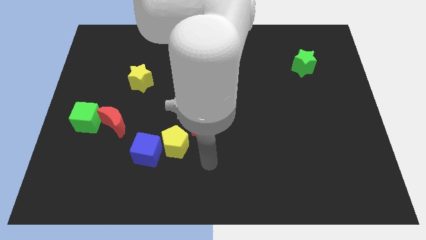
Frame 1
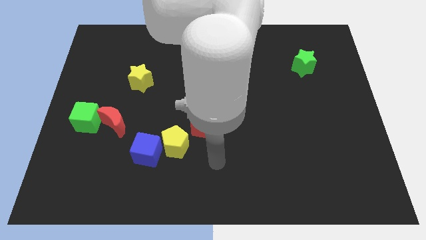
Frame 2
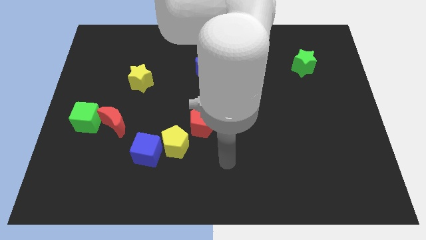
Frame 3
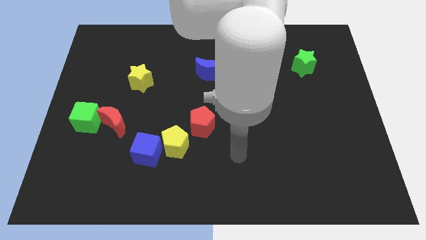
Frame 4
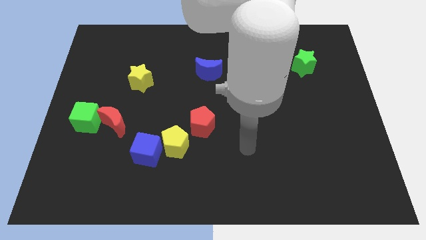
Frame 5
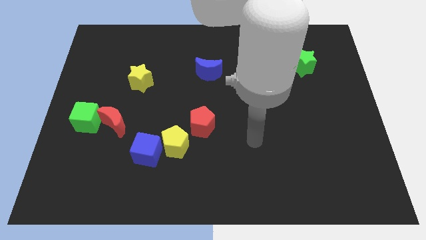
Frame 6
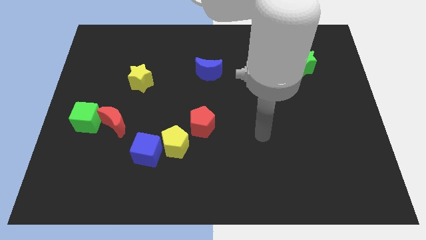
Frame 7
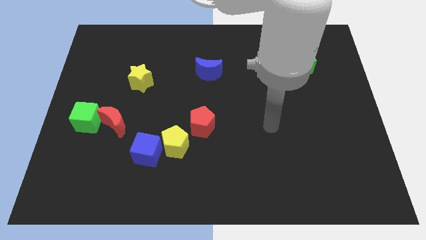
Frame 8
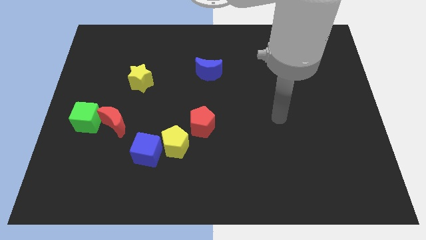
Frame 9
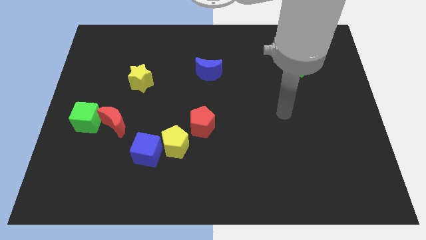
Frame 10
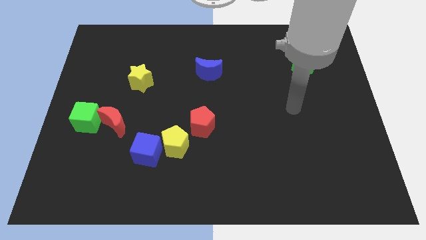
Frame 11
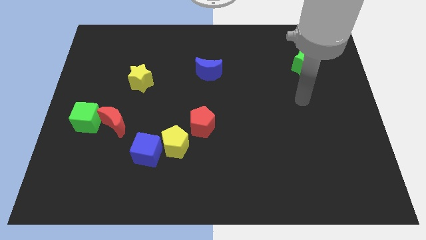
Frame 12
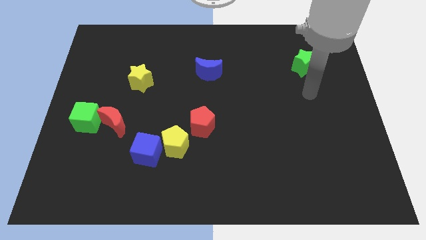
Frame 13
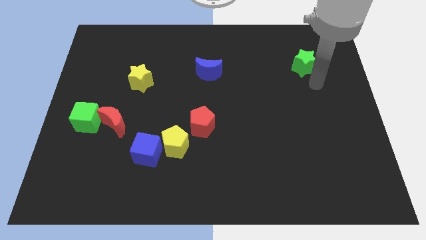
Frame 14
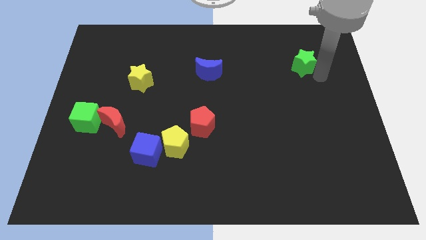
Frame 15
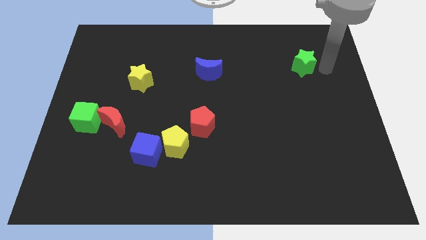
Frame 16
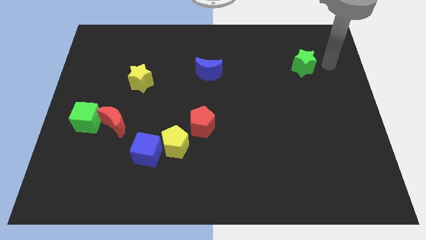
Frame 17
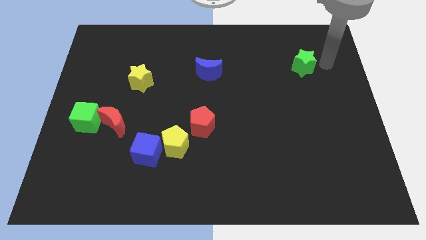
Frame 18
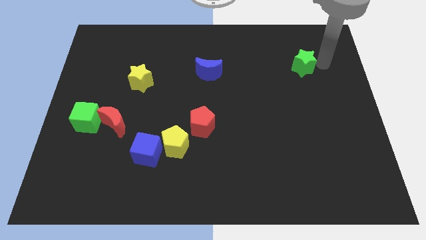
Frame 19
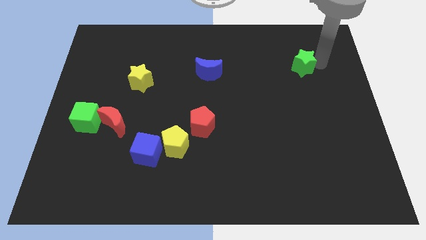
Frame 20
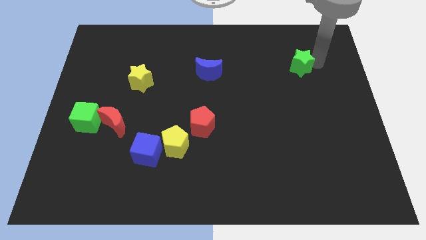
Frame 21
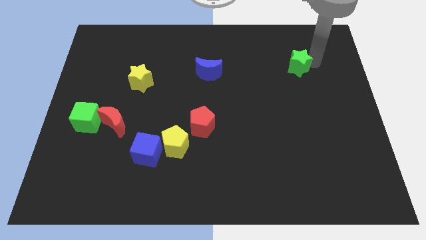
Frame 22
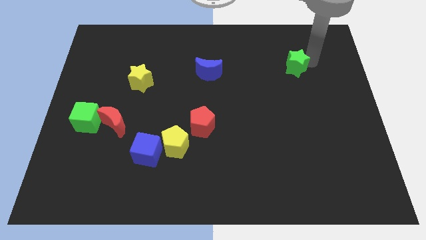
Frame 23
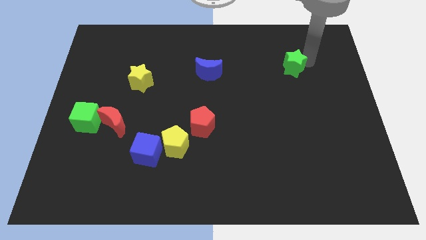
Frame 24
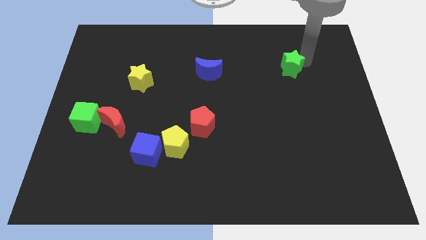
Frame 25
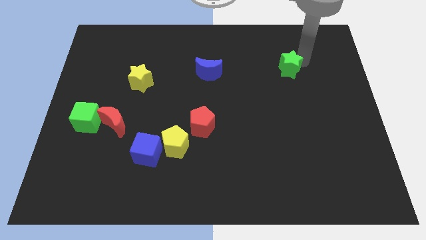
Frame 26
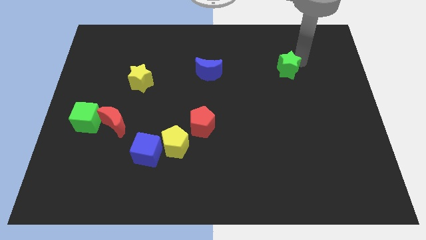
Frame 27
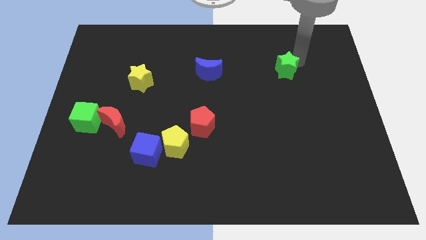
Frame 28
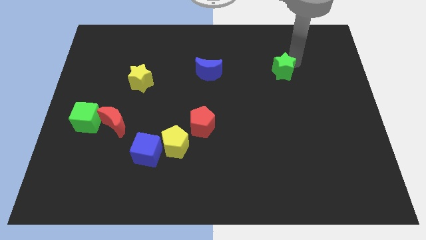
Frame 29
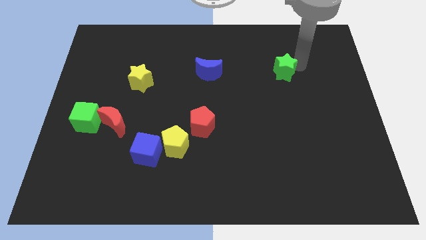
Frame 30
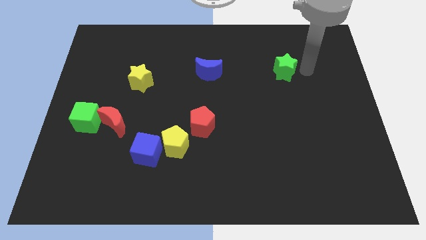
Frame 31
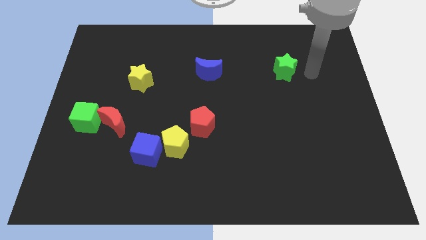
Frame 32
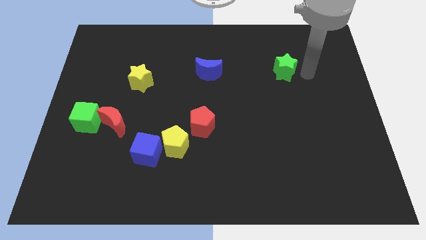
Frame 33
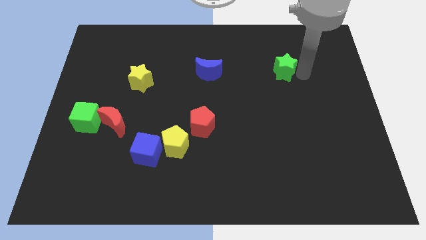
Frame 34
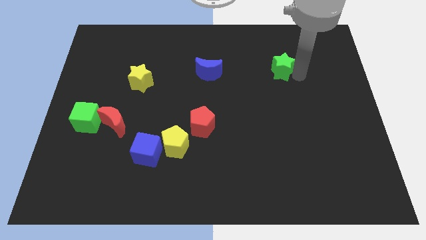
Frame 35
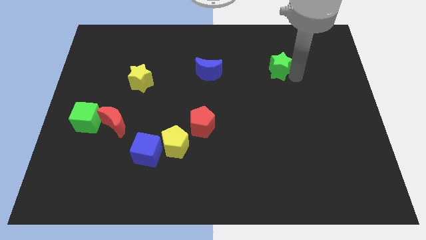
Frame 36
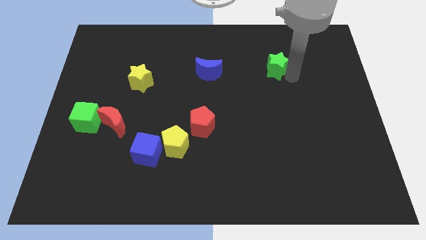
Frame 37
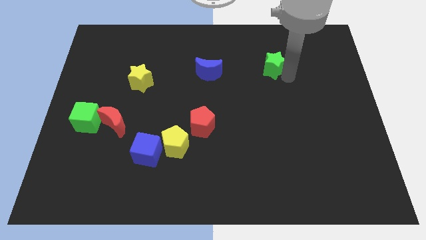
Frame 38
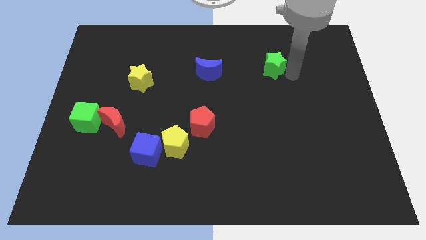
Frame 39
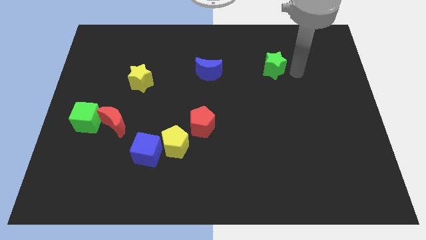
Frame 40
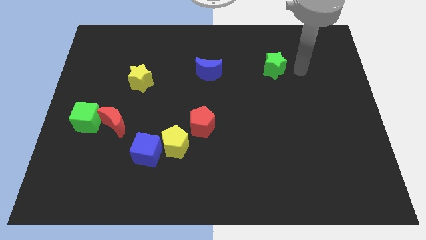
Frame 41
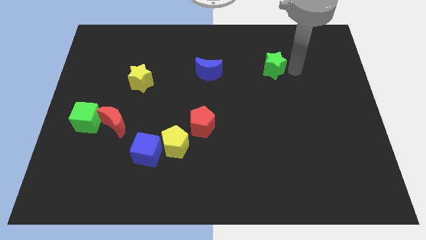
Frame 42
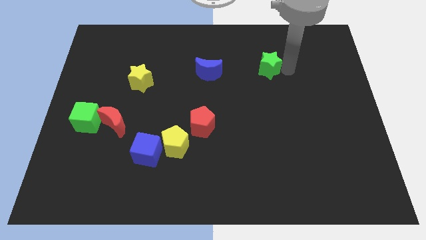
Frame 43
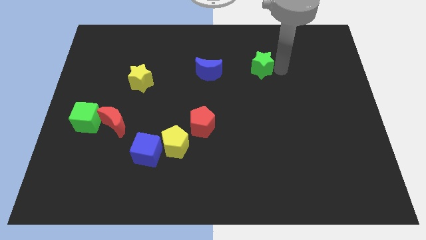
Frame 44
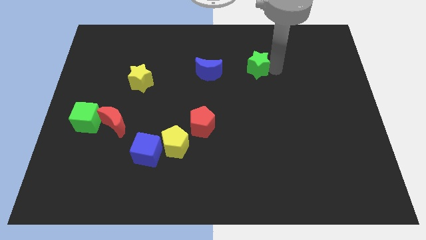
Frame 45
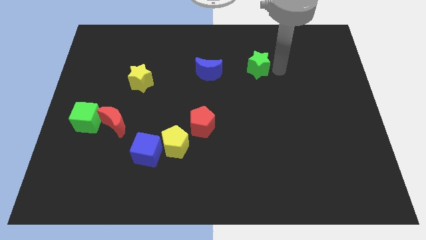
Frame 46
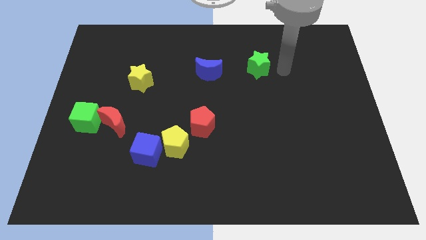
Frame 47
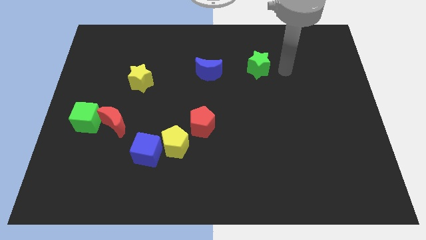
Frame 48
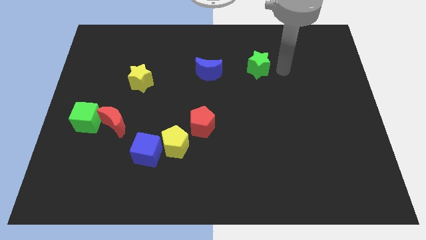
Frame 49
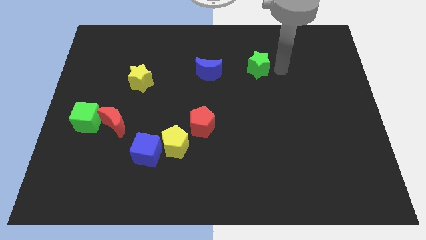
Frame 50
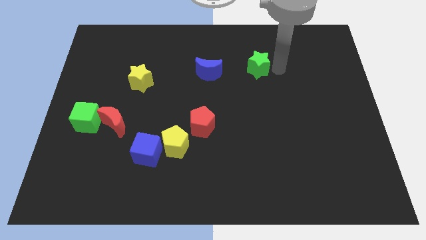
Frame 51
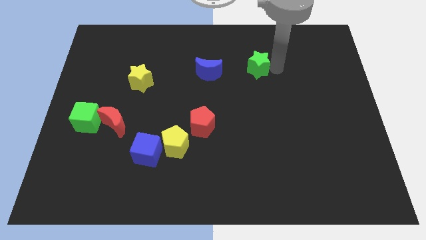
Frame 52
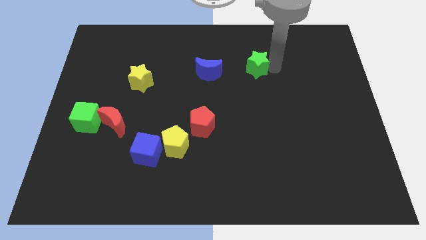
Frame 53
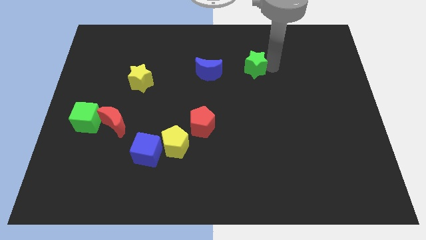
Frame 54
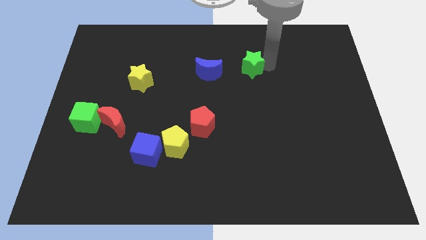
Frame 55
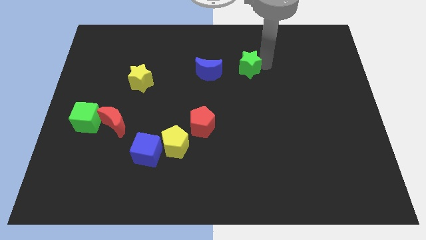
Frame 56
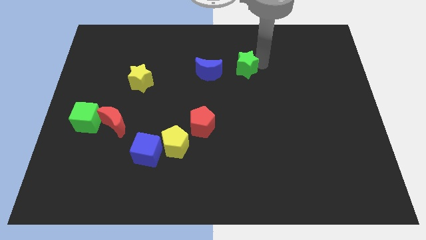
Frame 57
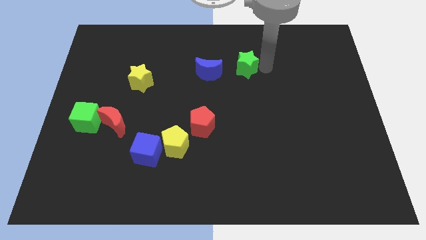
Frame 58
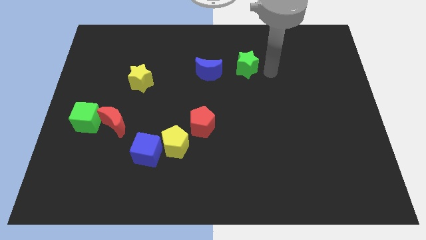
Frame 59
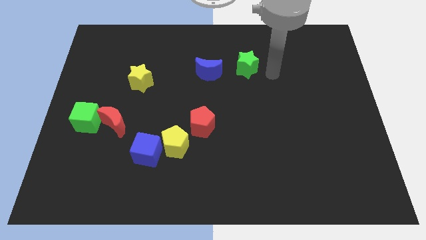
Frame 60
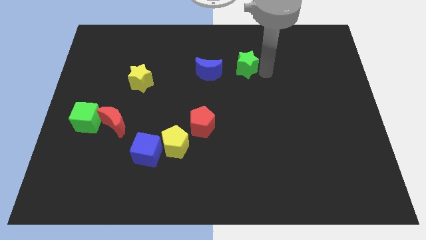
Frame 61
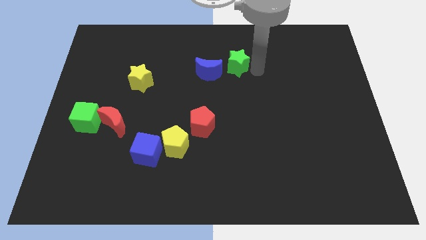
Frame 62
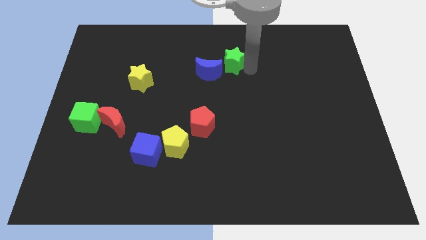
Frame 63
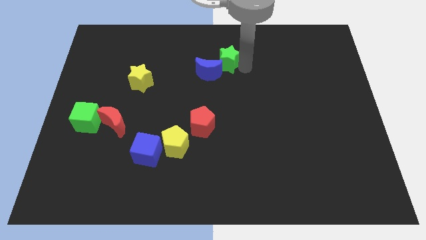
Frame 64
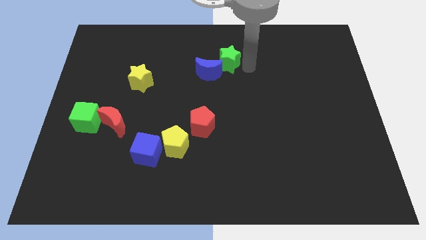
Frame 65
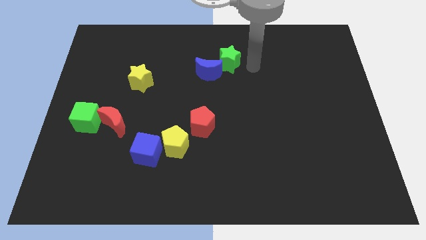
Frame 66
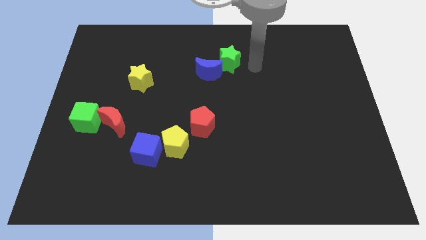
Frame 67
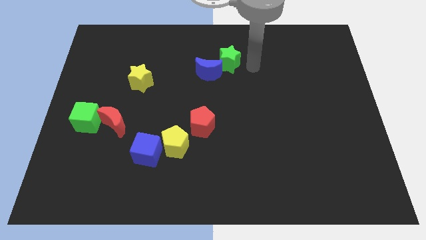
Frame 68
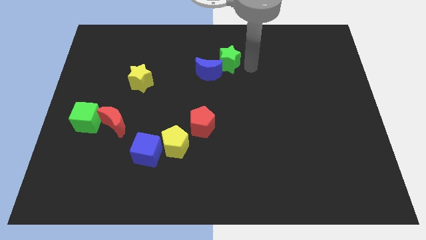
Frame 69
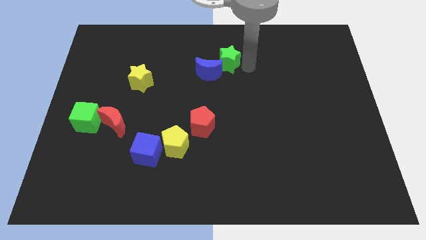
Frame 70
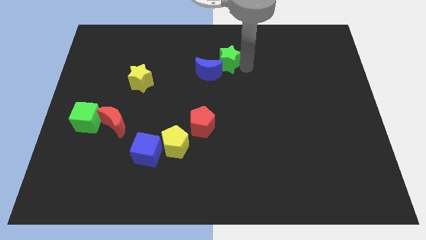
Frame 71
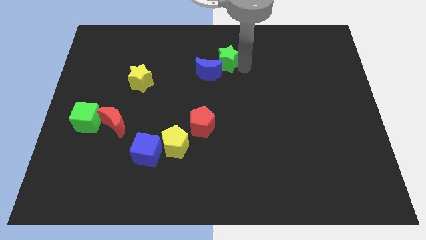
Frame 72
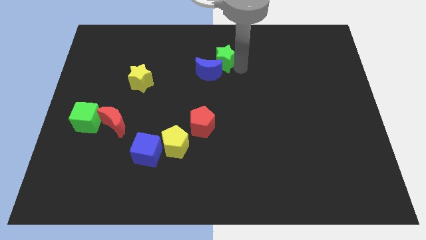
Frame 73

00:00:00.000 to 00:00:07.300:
push the green star left
